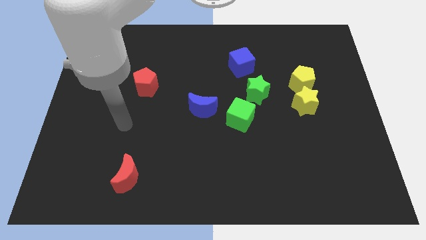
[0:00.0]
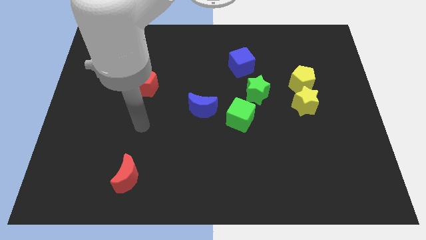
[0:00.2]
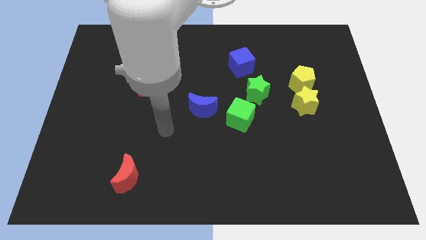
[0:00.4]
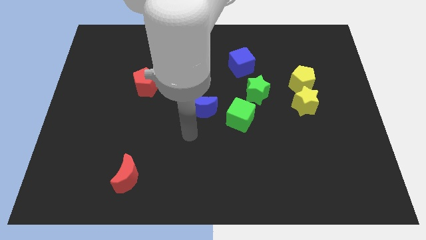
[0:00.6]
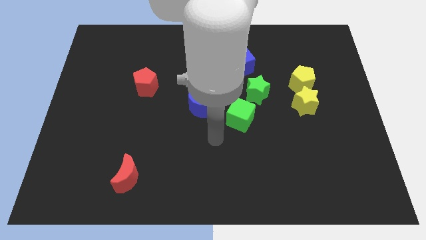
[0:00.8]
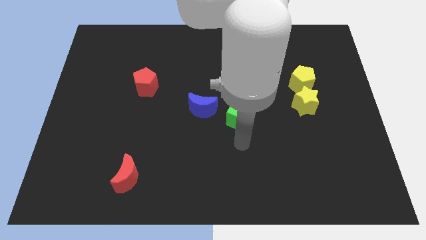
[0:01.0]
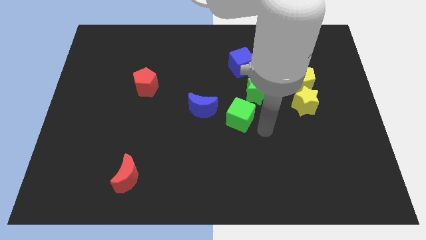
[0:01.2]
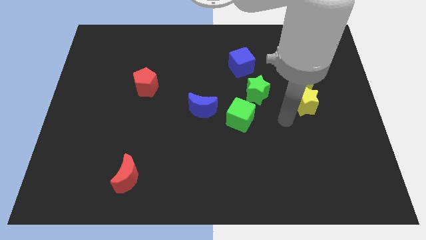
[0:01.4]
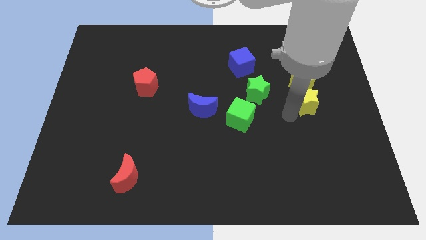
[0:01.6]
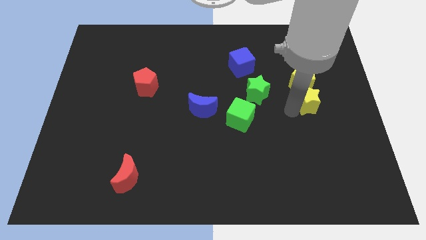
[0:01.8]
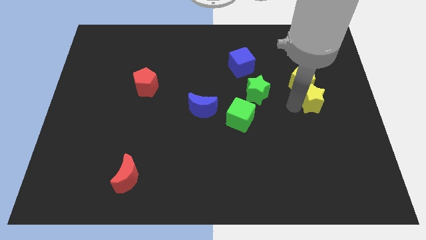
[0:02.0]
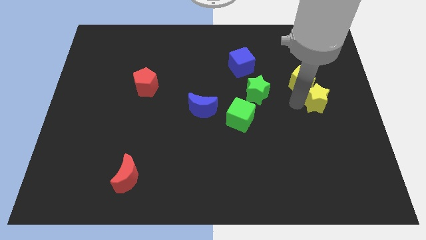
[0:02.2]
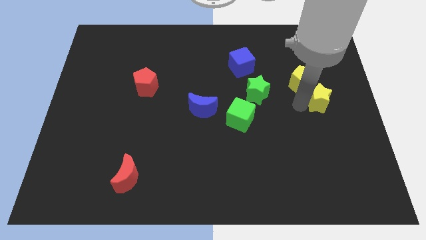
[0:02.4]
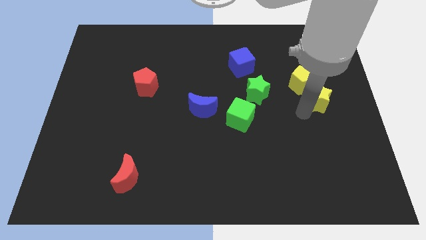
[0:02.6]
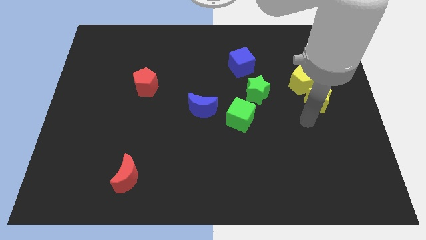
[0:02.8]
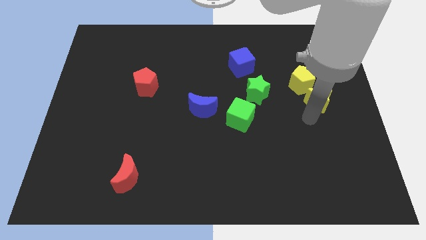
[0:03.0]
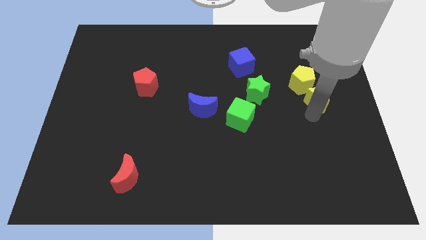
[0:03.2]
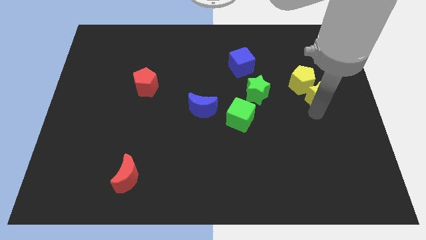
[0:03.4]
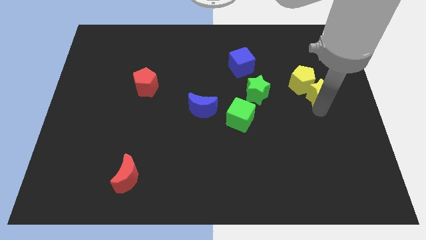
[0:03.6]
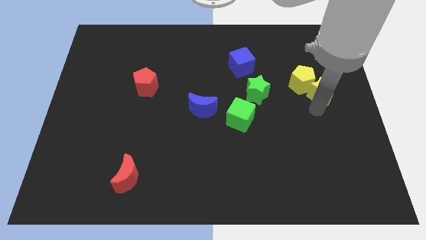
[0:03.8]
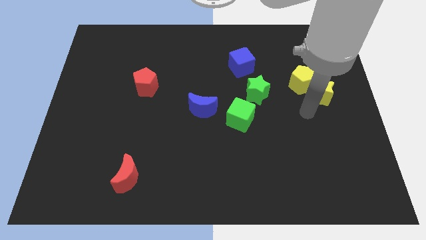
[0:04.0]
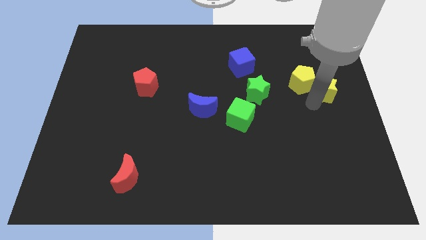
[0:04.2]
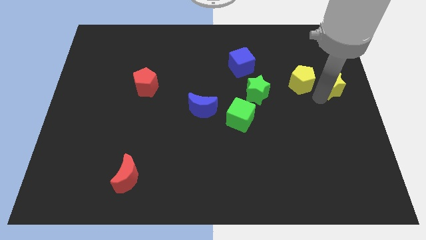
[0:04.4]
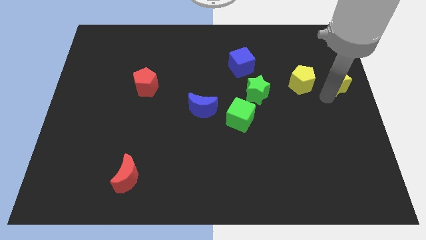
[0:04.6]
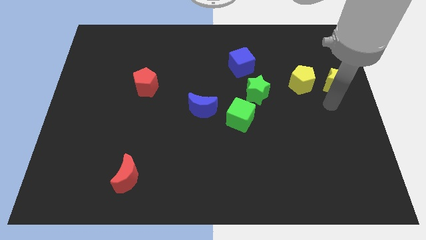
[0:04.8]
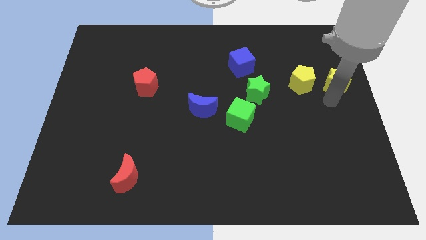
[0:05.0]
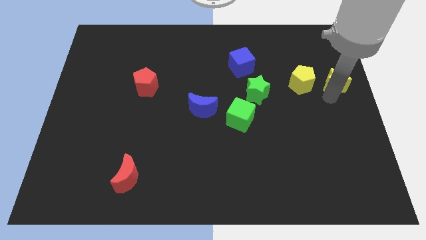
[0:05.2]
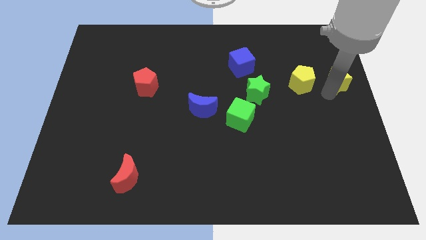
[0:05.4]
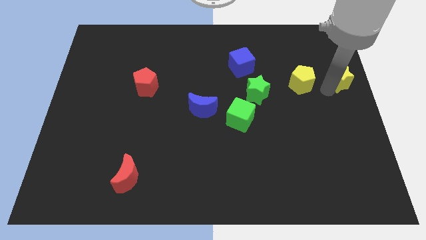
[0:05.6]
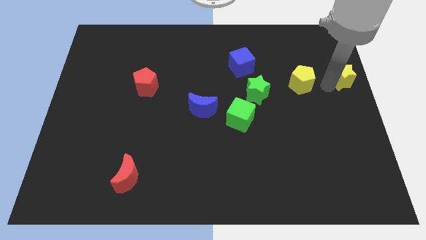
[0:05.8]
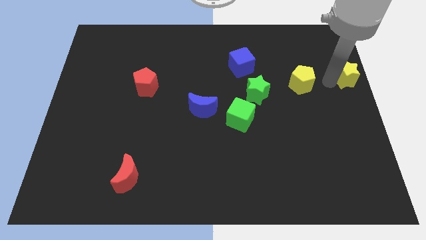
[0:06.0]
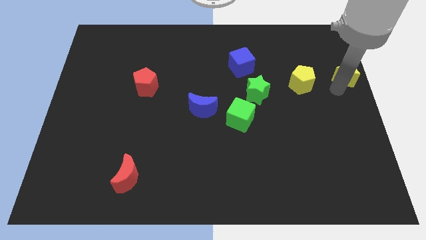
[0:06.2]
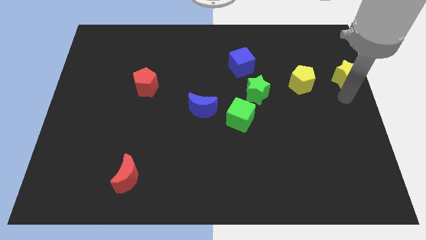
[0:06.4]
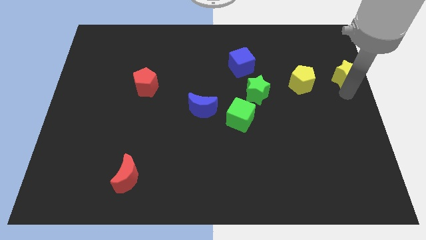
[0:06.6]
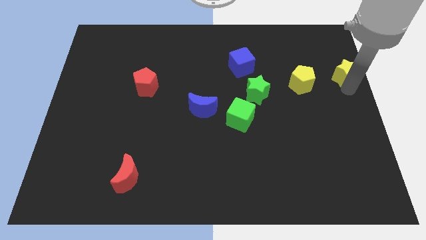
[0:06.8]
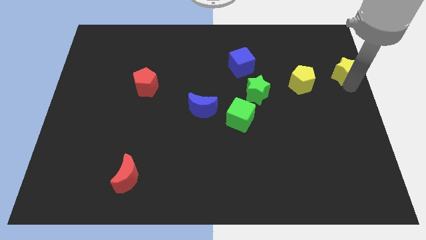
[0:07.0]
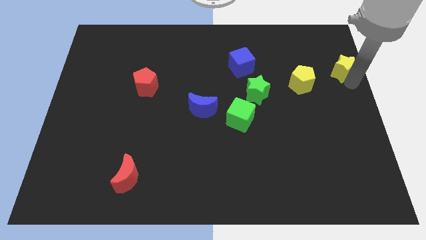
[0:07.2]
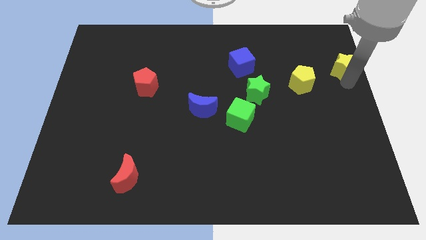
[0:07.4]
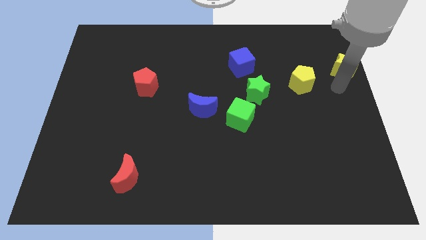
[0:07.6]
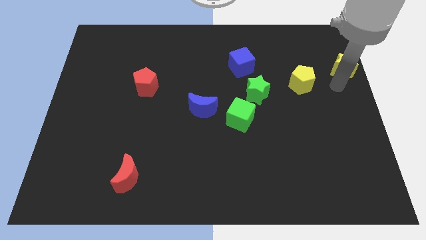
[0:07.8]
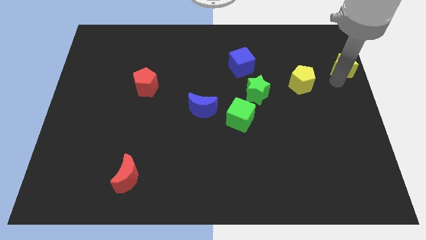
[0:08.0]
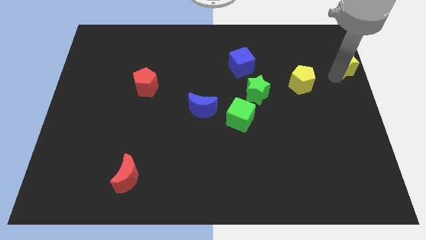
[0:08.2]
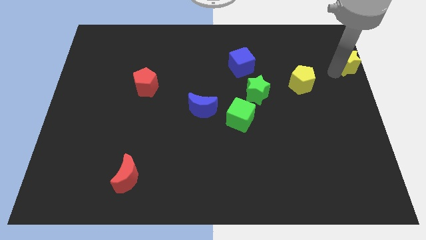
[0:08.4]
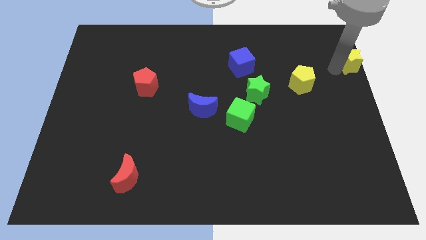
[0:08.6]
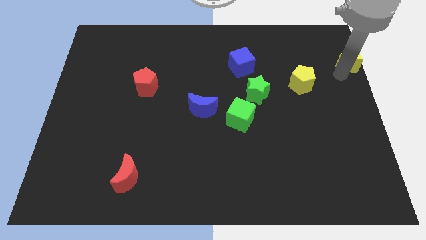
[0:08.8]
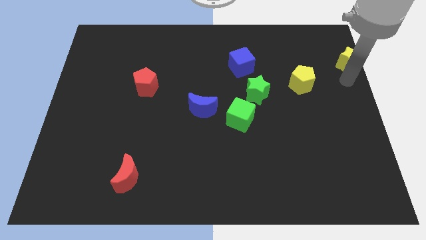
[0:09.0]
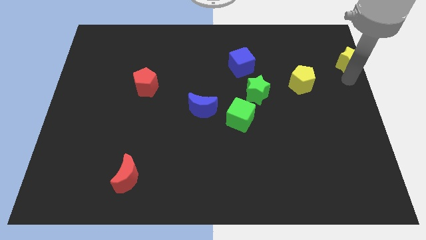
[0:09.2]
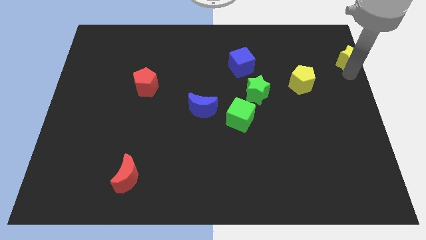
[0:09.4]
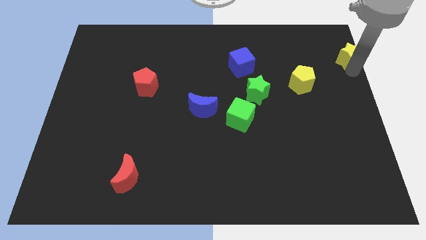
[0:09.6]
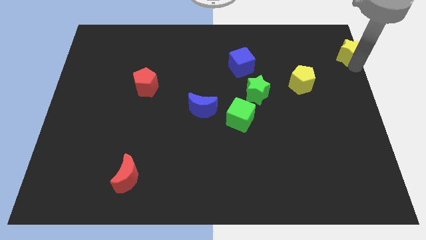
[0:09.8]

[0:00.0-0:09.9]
move the yellow star to the top right corner
